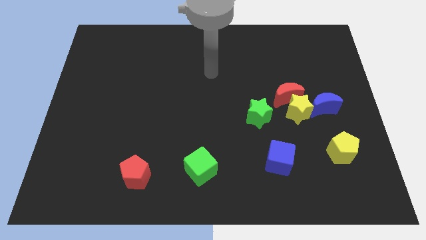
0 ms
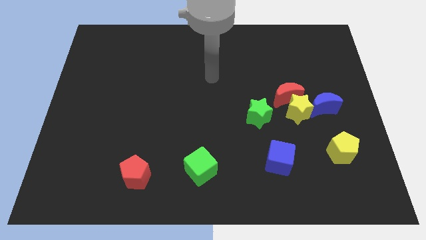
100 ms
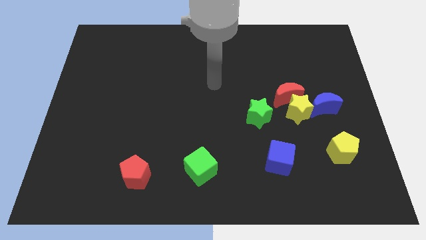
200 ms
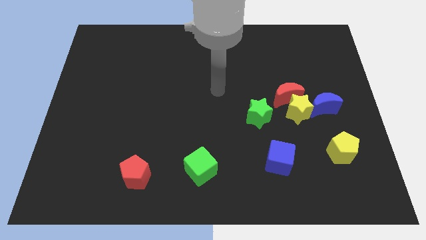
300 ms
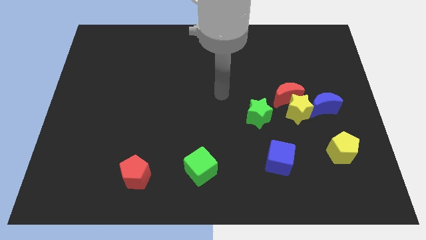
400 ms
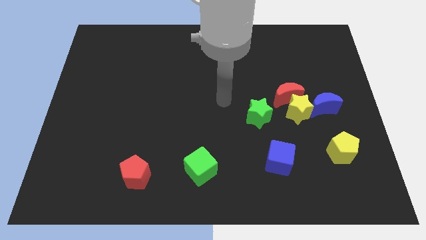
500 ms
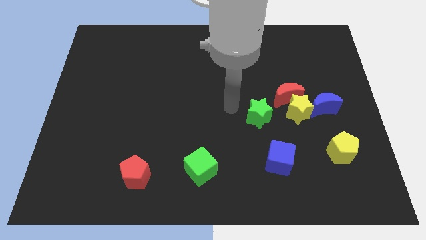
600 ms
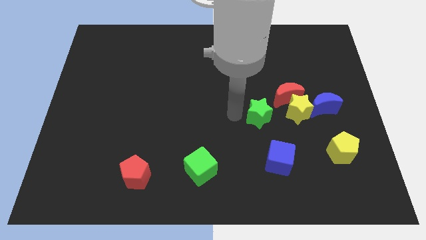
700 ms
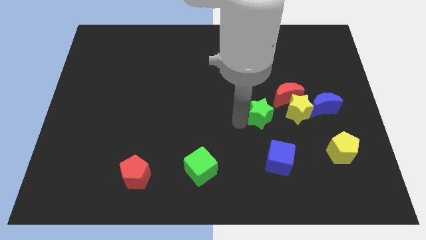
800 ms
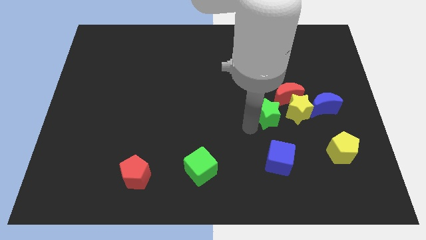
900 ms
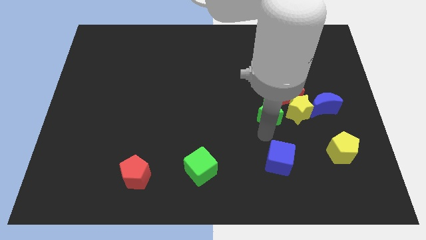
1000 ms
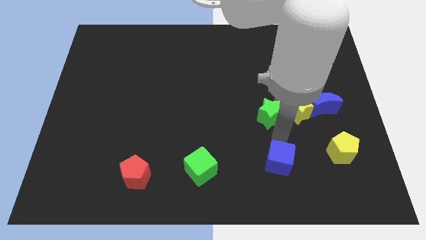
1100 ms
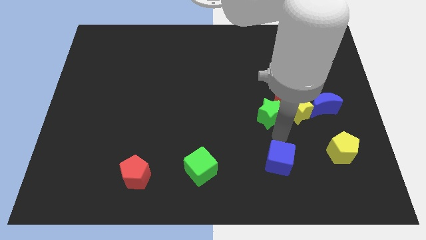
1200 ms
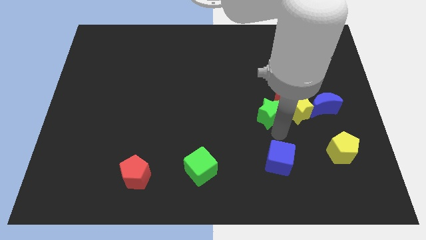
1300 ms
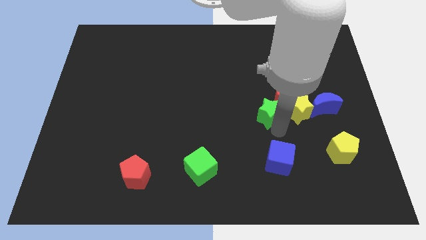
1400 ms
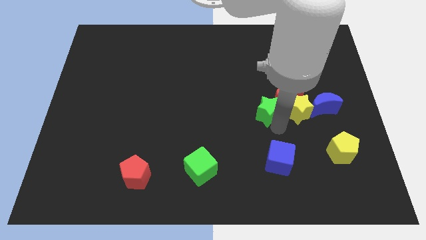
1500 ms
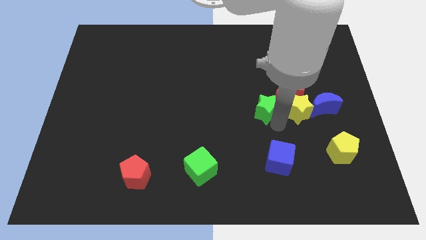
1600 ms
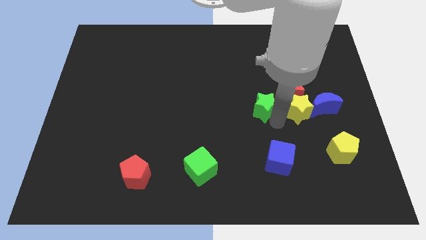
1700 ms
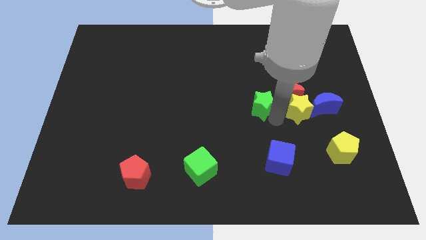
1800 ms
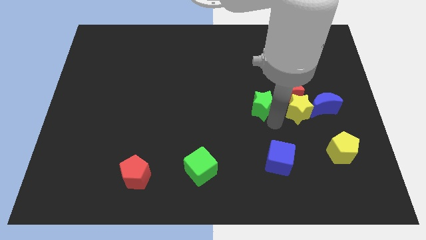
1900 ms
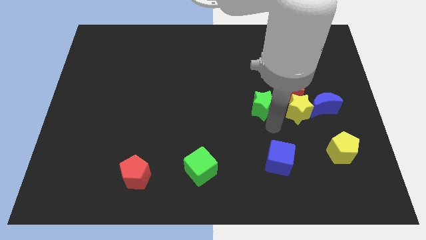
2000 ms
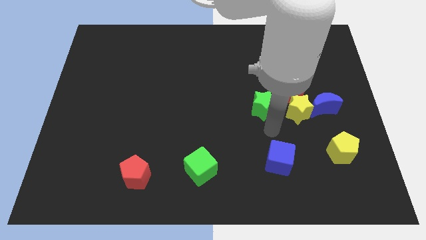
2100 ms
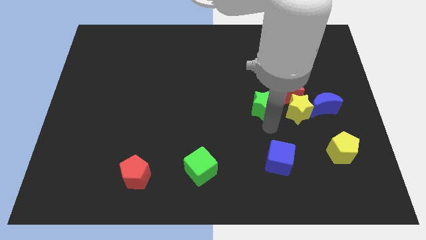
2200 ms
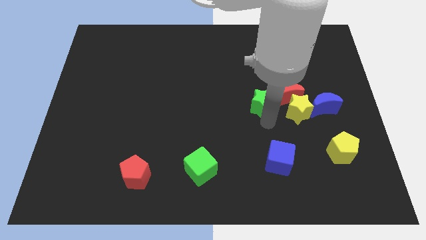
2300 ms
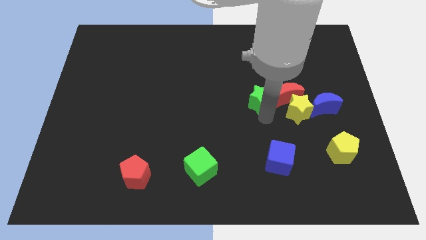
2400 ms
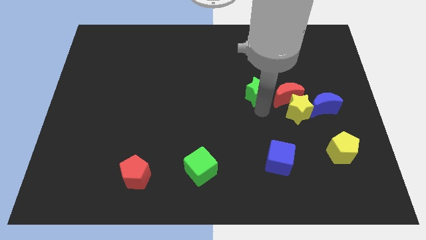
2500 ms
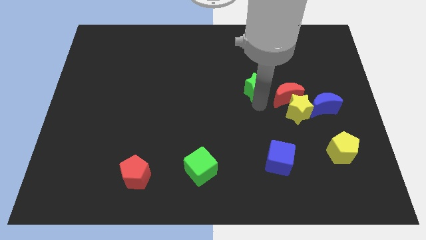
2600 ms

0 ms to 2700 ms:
slide the green star upwards a little bit

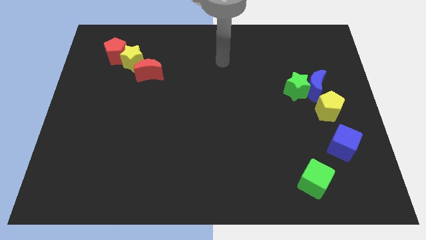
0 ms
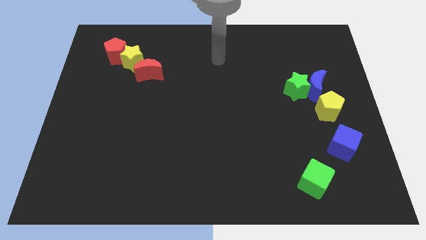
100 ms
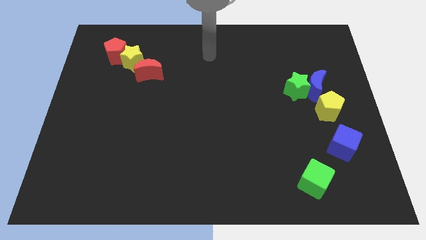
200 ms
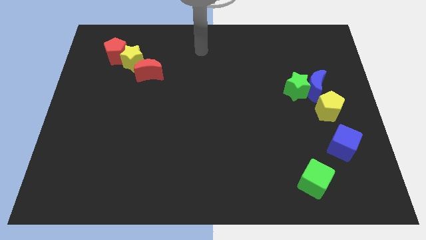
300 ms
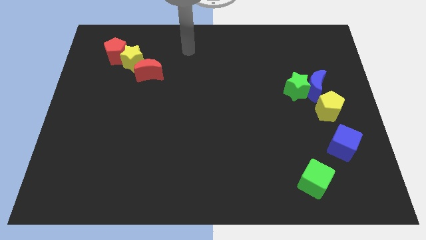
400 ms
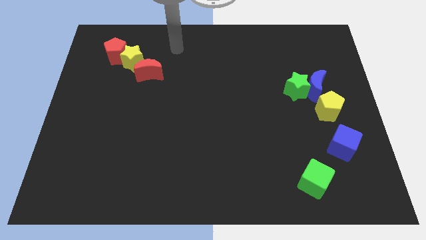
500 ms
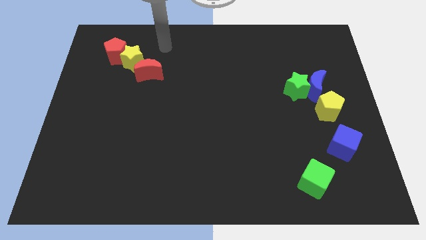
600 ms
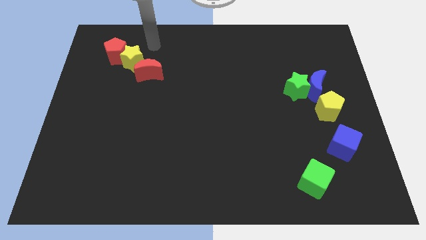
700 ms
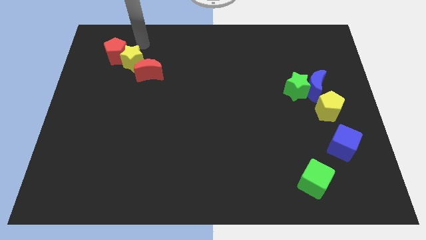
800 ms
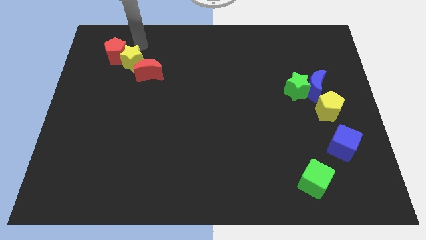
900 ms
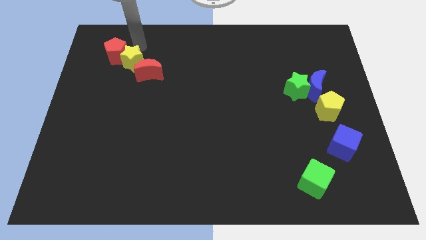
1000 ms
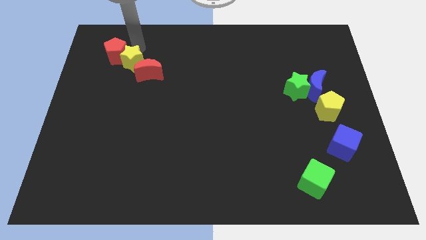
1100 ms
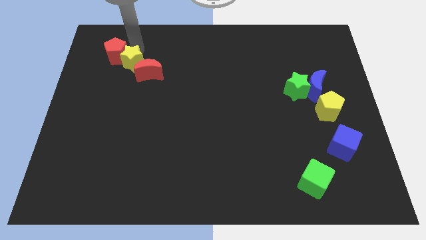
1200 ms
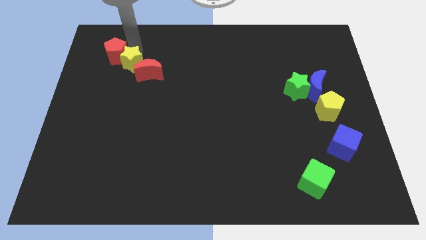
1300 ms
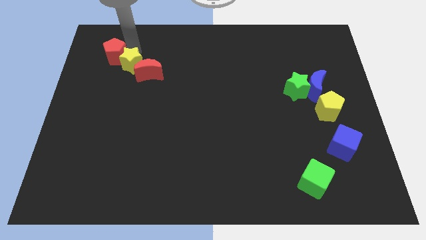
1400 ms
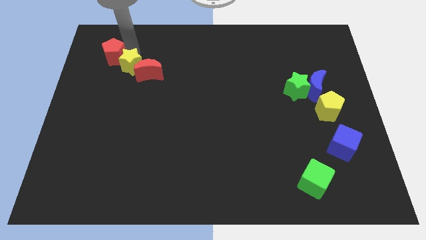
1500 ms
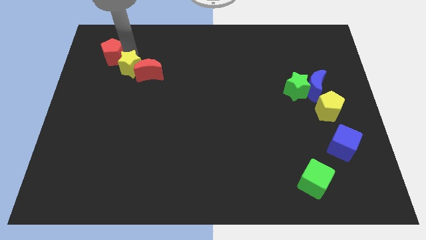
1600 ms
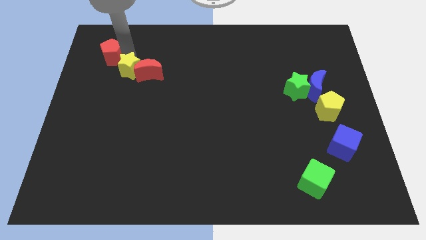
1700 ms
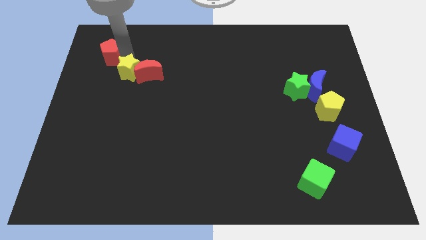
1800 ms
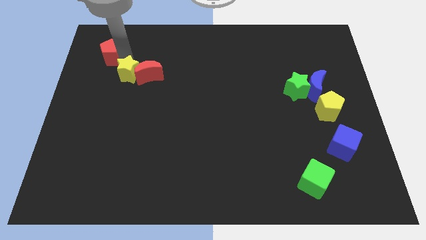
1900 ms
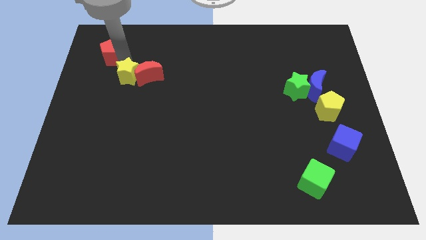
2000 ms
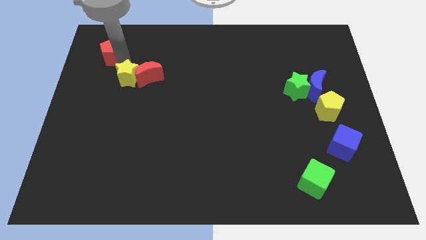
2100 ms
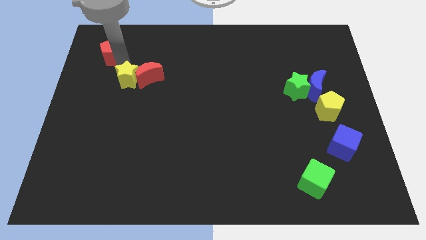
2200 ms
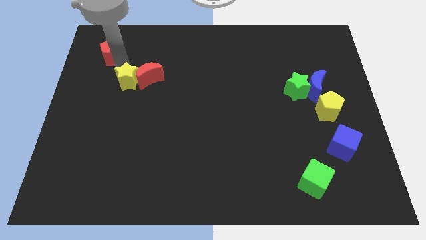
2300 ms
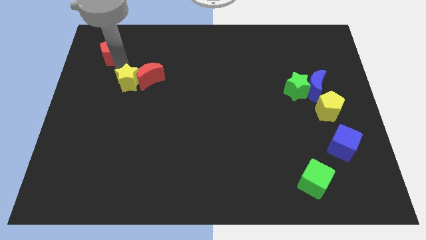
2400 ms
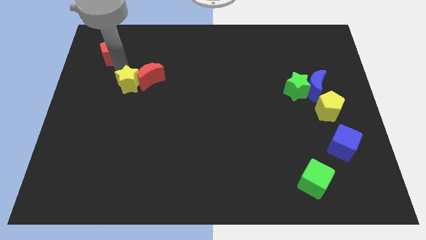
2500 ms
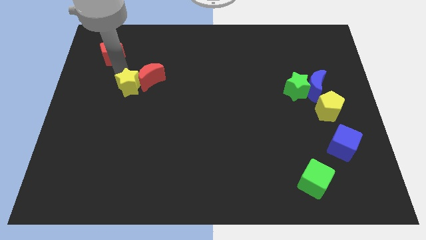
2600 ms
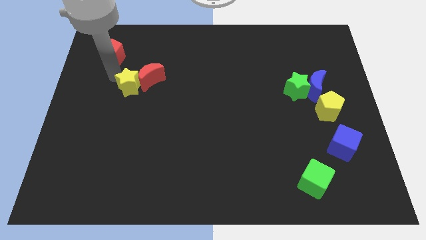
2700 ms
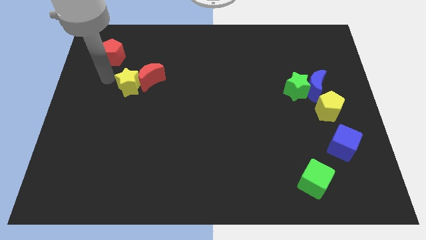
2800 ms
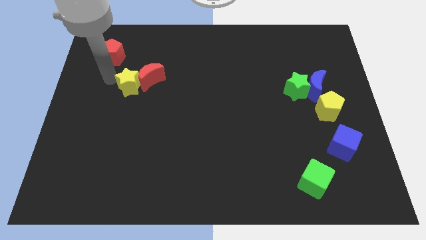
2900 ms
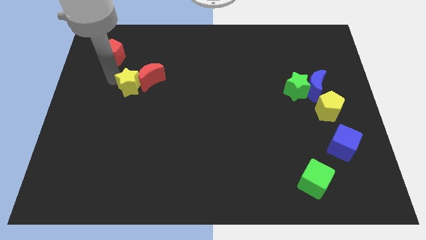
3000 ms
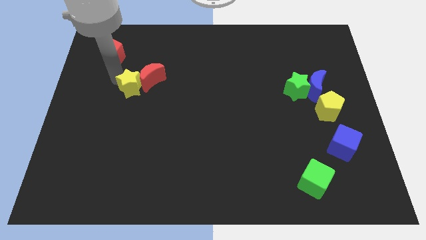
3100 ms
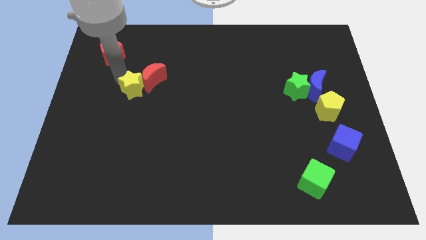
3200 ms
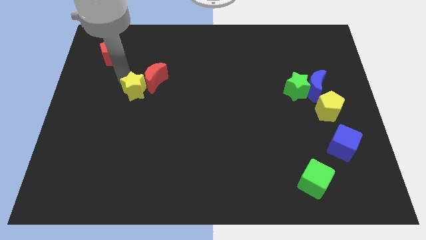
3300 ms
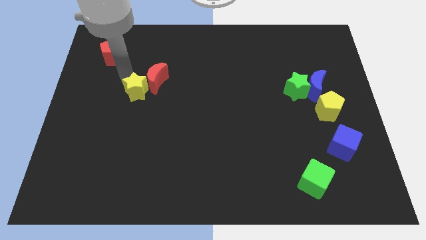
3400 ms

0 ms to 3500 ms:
slightly move the yellow star down and to the right diagonally

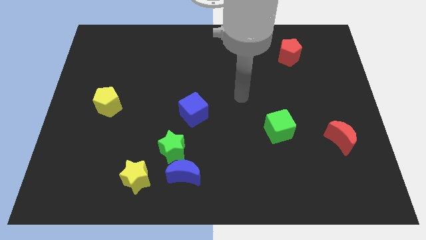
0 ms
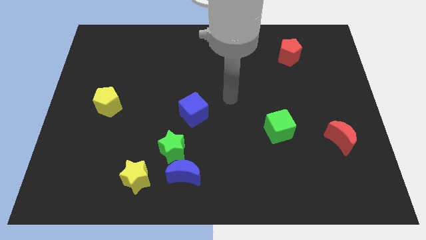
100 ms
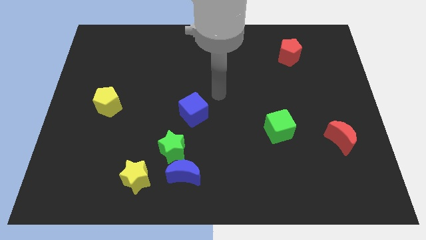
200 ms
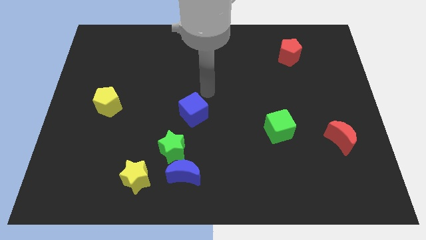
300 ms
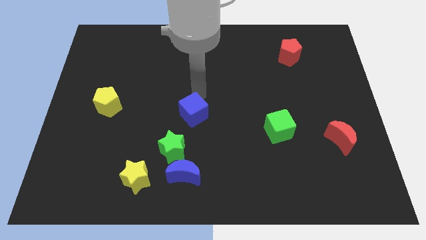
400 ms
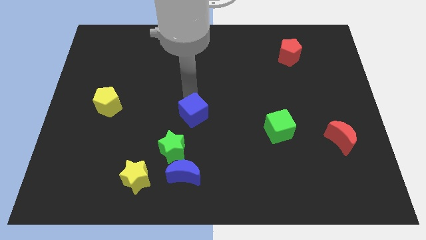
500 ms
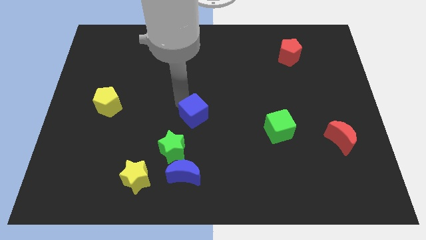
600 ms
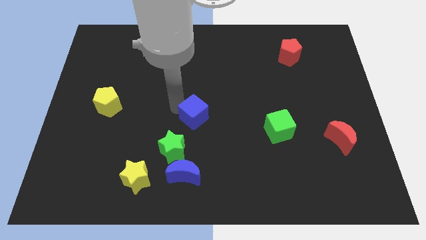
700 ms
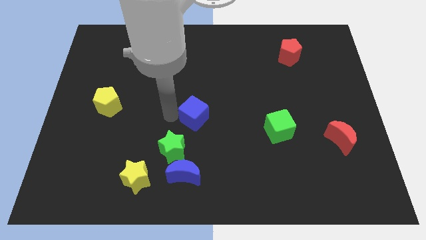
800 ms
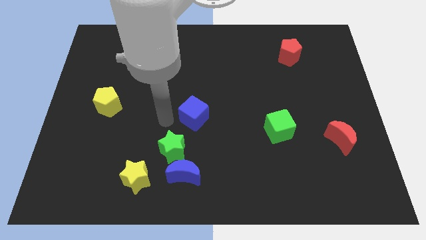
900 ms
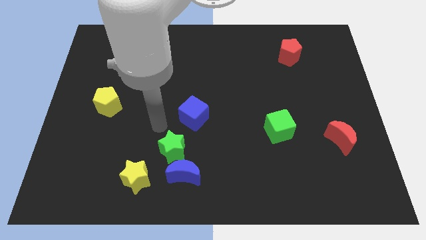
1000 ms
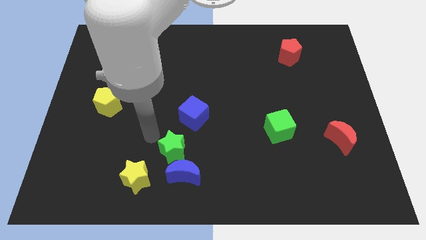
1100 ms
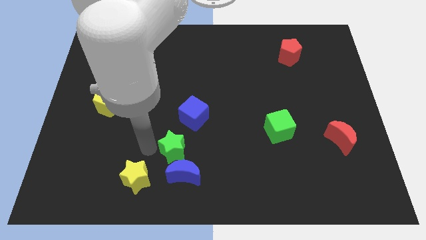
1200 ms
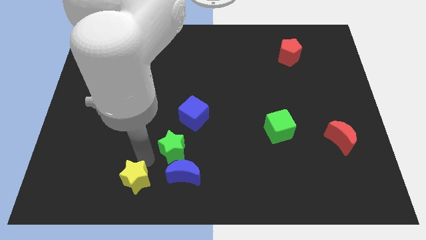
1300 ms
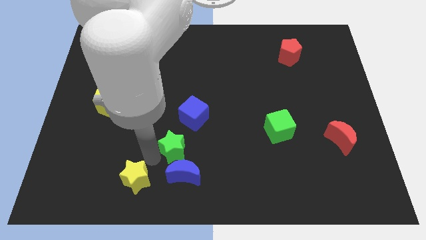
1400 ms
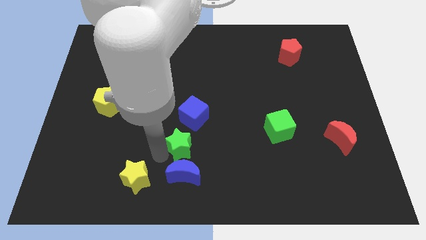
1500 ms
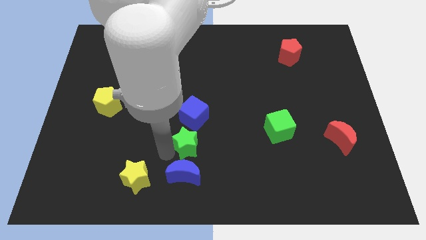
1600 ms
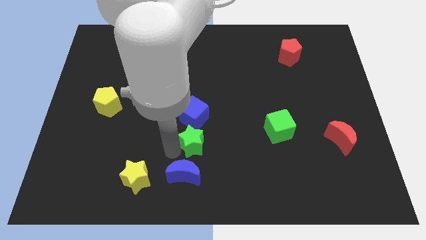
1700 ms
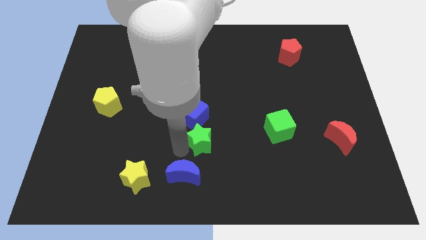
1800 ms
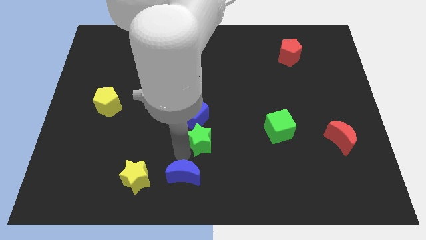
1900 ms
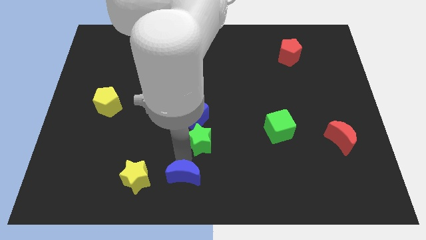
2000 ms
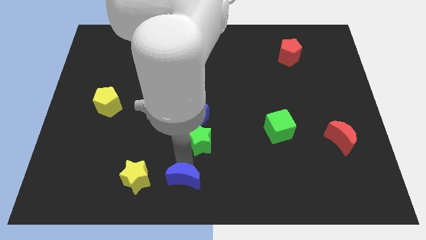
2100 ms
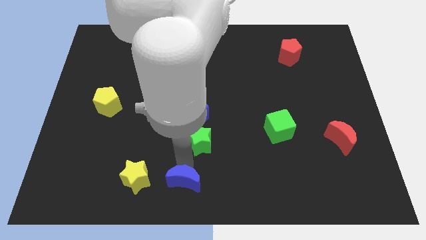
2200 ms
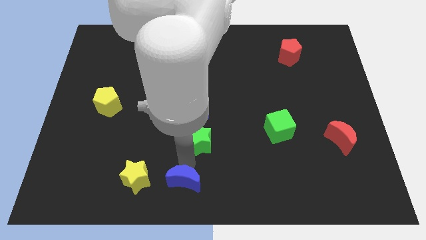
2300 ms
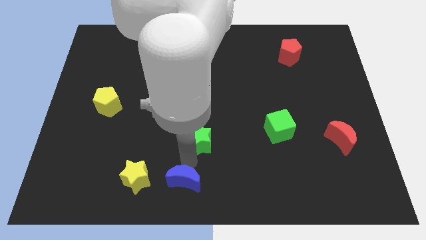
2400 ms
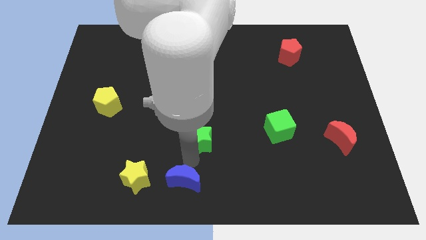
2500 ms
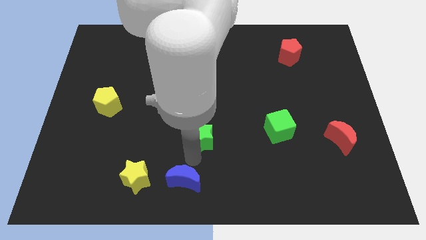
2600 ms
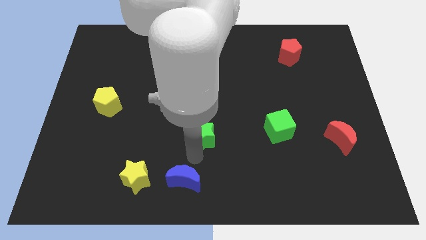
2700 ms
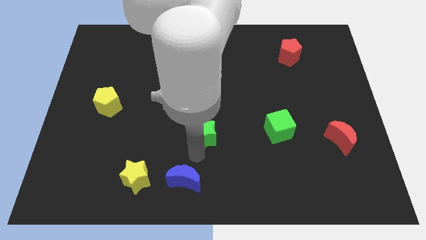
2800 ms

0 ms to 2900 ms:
slightly slide the green star up and to the right
